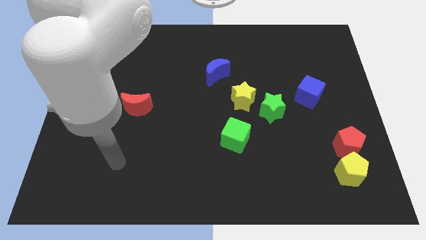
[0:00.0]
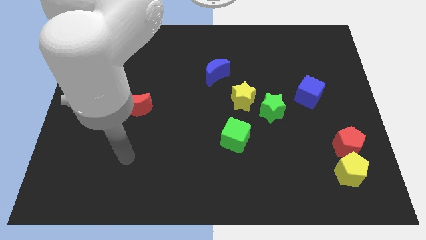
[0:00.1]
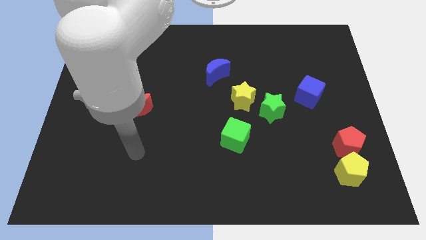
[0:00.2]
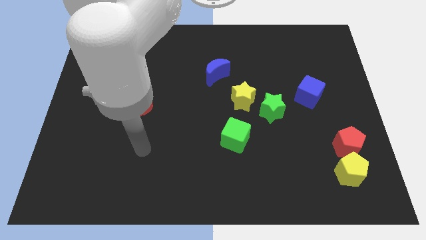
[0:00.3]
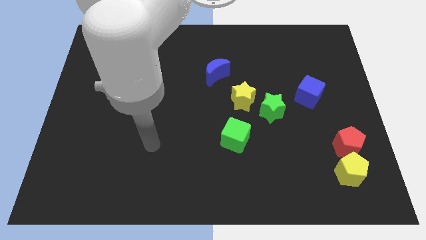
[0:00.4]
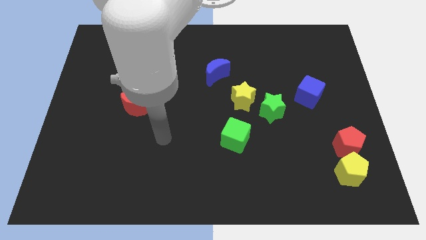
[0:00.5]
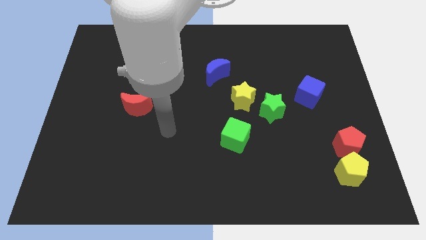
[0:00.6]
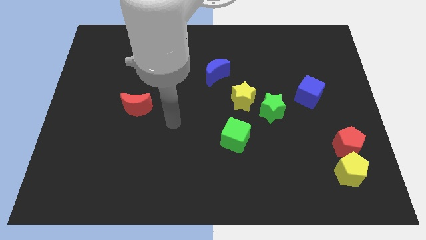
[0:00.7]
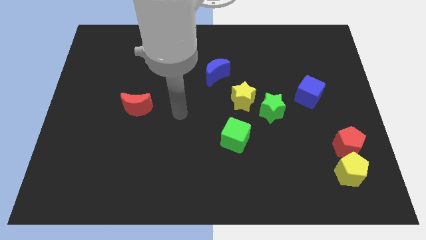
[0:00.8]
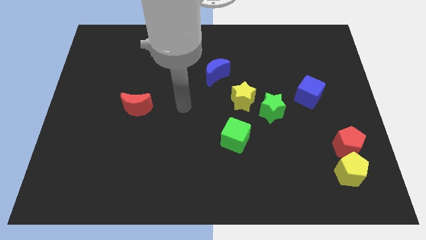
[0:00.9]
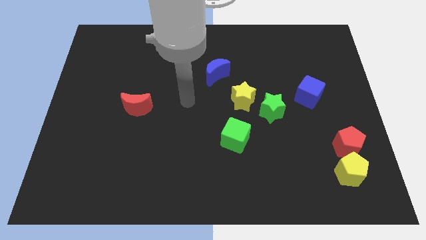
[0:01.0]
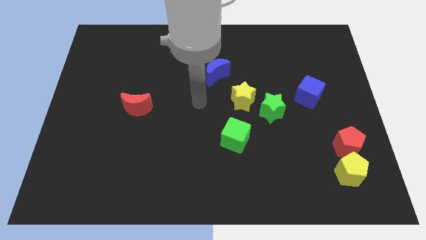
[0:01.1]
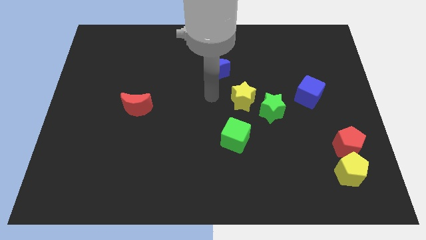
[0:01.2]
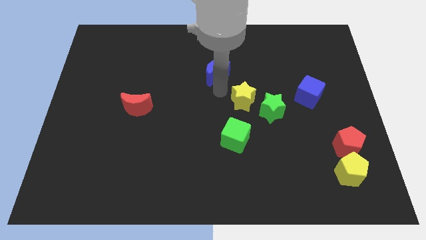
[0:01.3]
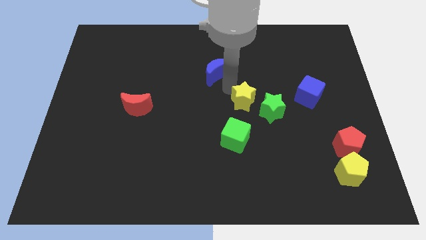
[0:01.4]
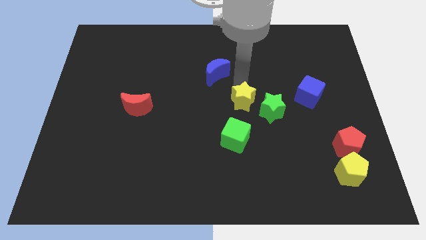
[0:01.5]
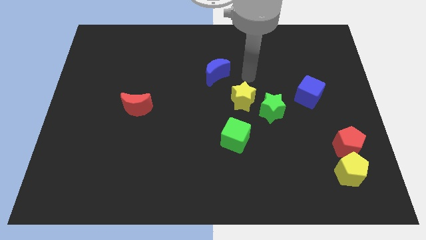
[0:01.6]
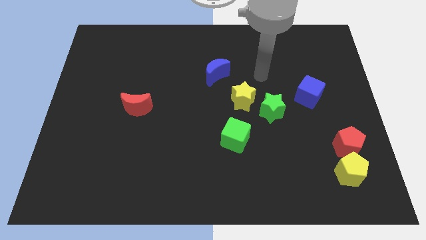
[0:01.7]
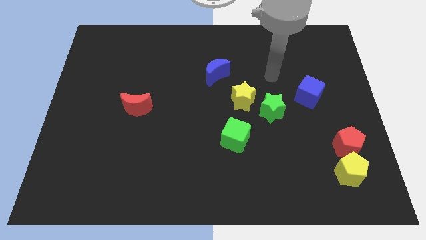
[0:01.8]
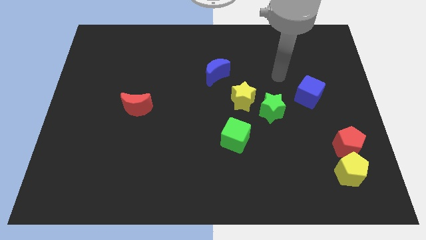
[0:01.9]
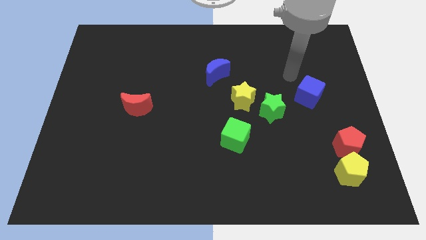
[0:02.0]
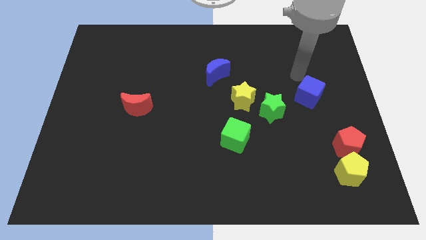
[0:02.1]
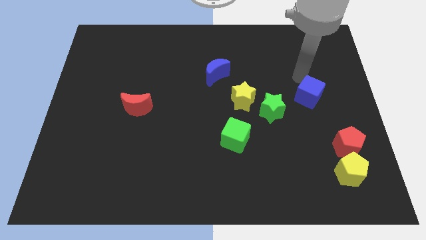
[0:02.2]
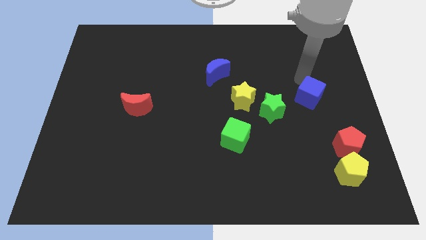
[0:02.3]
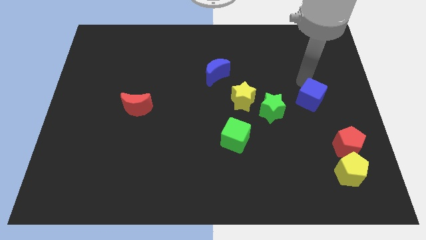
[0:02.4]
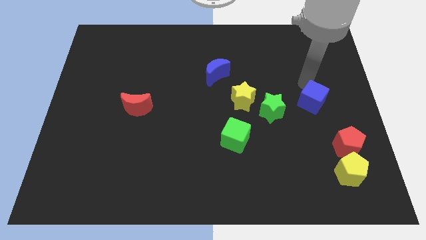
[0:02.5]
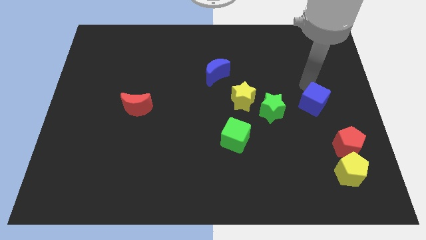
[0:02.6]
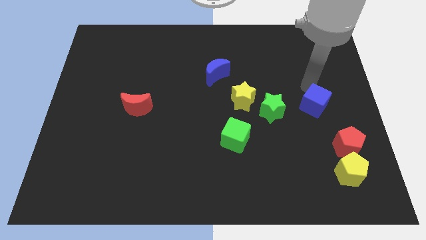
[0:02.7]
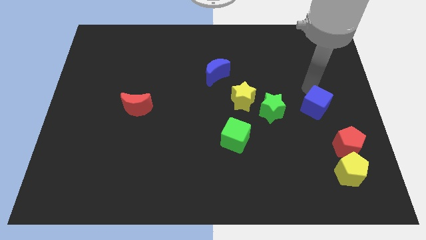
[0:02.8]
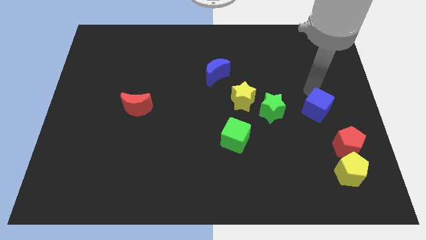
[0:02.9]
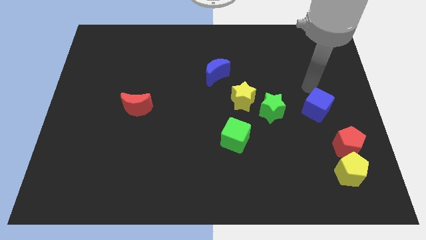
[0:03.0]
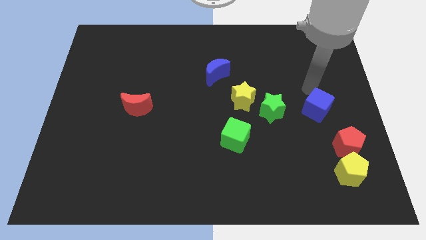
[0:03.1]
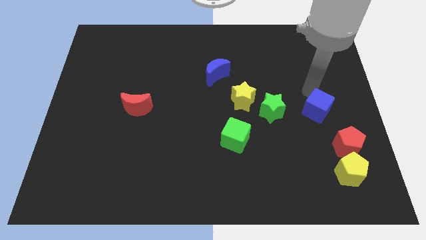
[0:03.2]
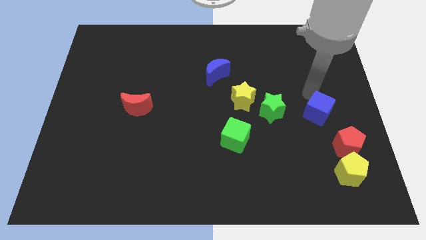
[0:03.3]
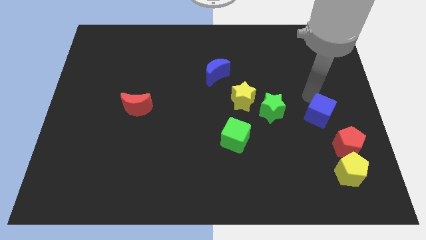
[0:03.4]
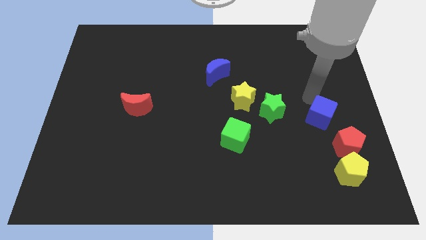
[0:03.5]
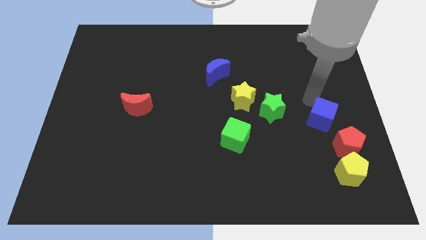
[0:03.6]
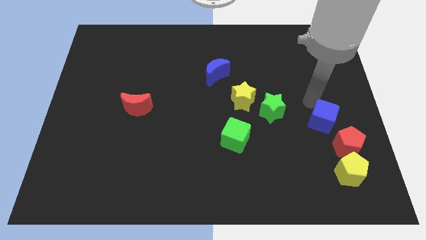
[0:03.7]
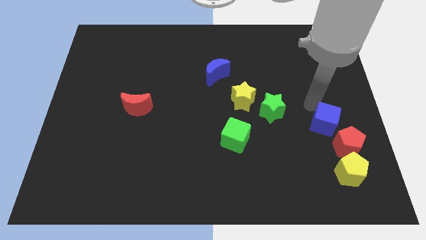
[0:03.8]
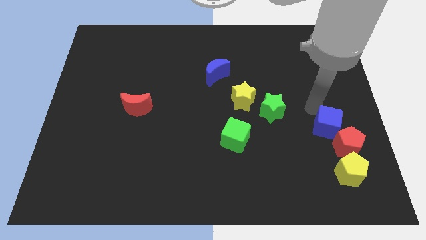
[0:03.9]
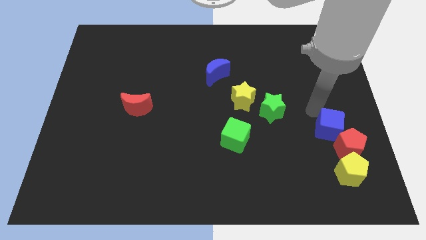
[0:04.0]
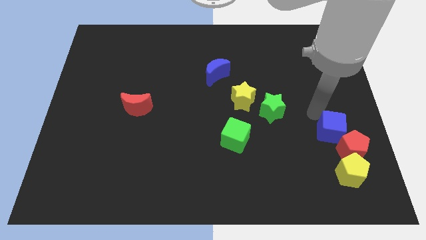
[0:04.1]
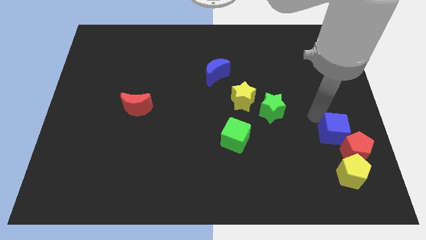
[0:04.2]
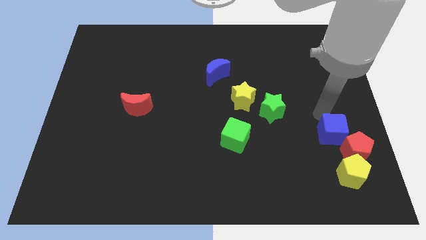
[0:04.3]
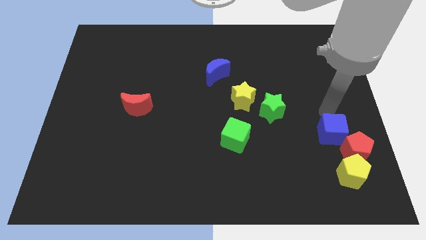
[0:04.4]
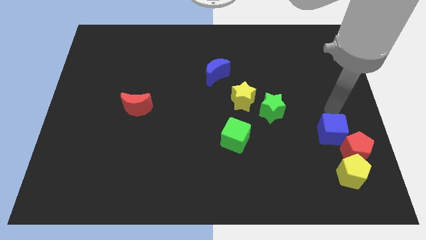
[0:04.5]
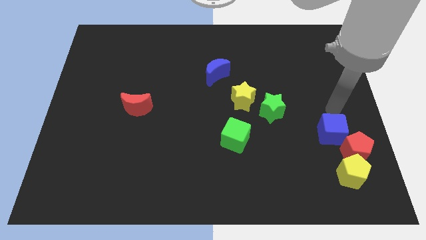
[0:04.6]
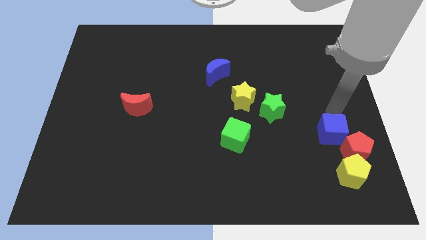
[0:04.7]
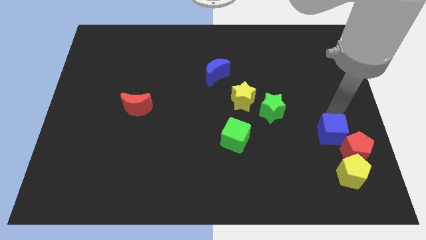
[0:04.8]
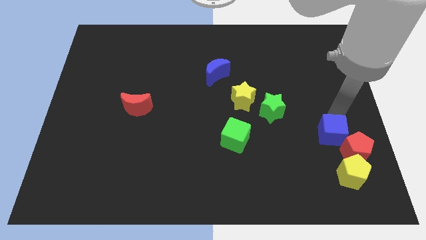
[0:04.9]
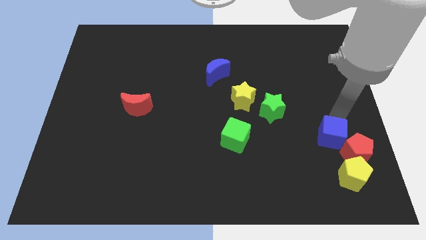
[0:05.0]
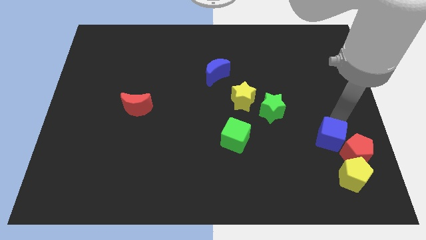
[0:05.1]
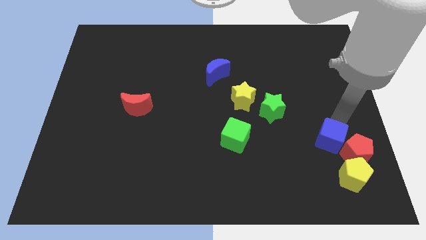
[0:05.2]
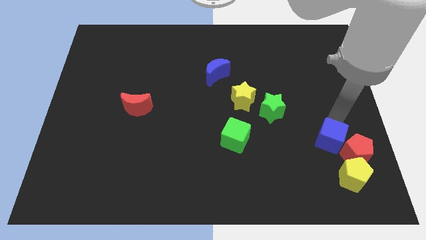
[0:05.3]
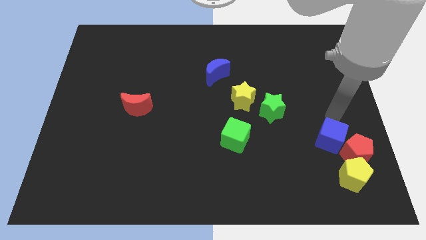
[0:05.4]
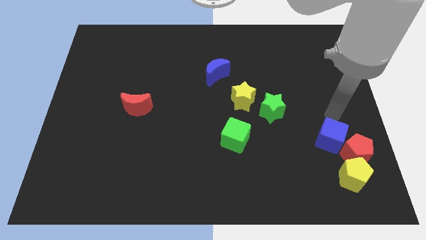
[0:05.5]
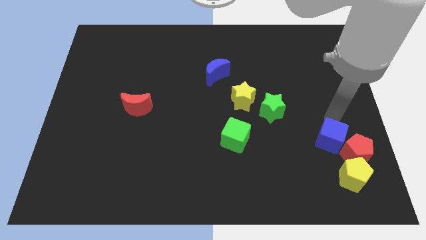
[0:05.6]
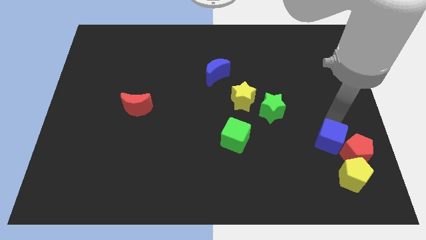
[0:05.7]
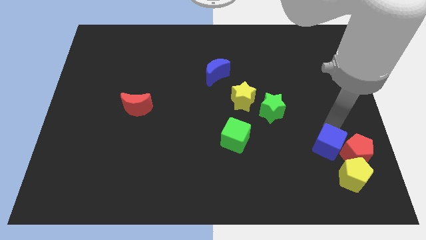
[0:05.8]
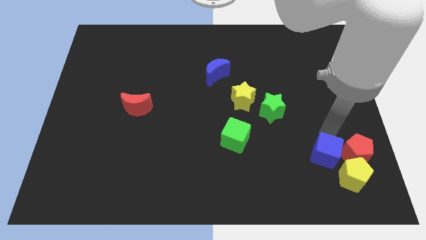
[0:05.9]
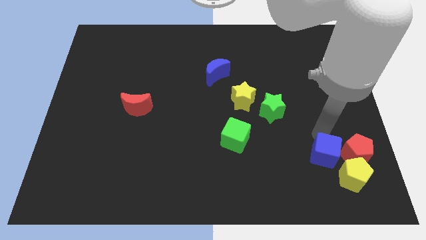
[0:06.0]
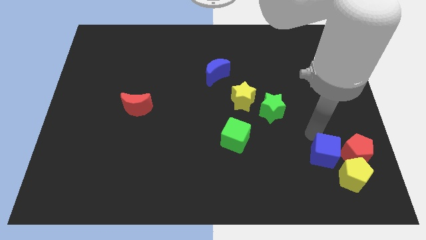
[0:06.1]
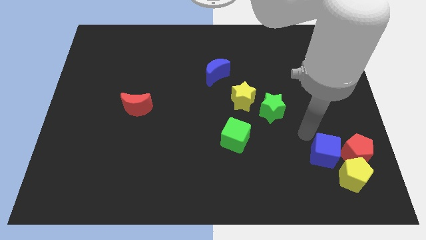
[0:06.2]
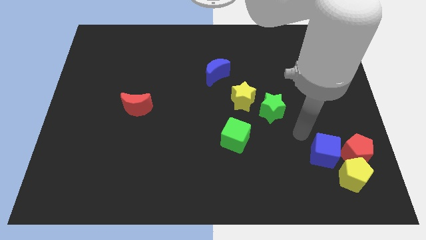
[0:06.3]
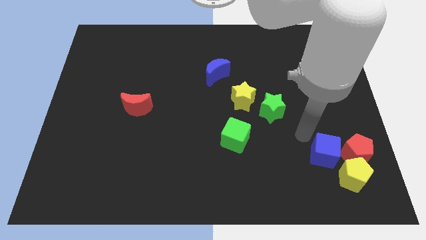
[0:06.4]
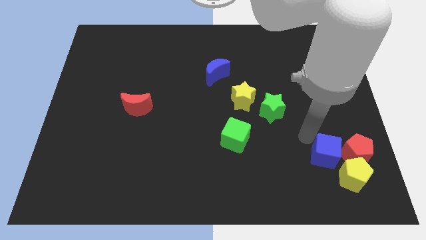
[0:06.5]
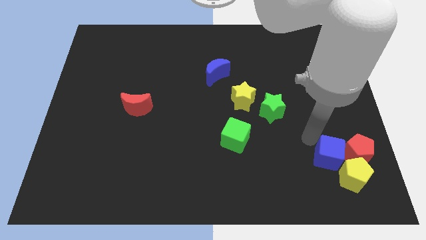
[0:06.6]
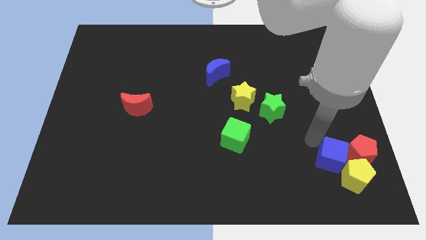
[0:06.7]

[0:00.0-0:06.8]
slide the blue cube close to the yellow pentagon
